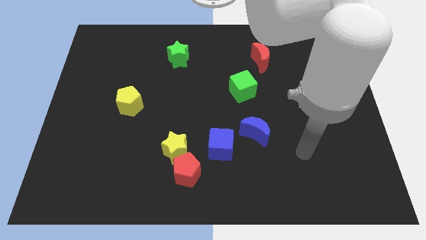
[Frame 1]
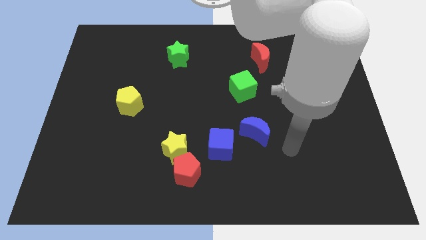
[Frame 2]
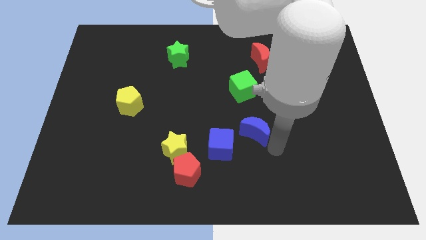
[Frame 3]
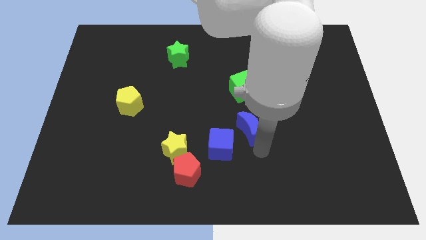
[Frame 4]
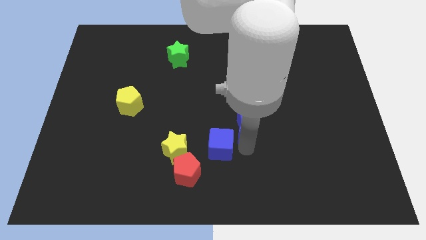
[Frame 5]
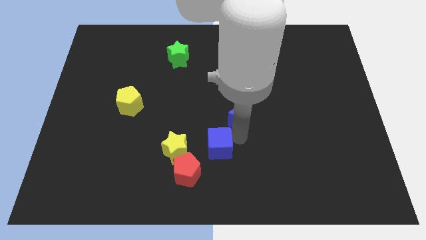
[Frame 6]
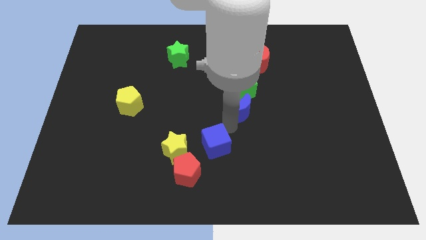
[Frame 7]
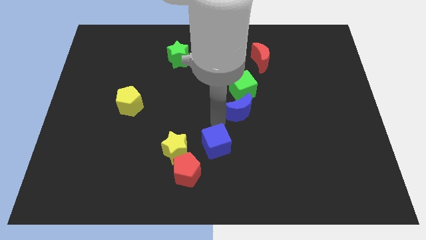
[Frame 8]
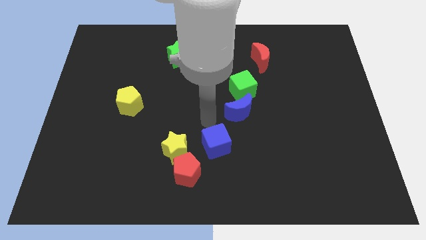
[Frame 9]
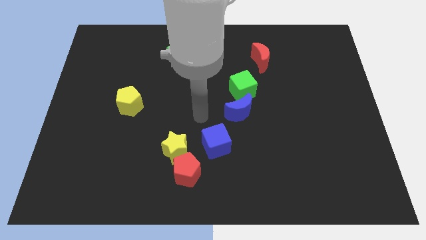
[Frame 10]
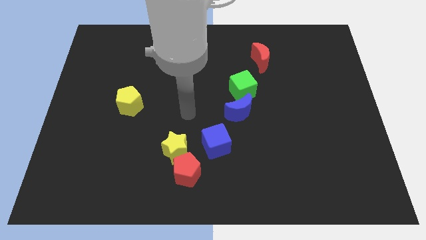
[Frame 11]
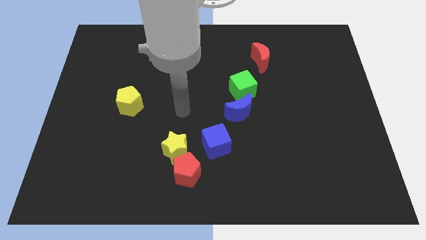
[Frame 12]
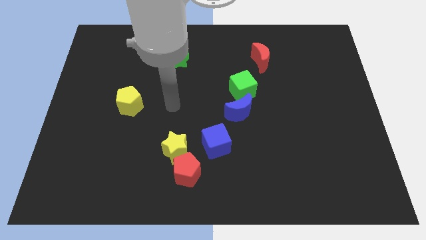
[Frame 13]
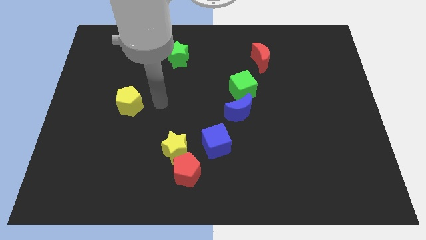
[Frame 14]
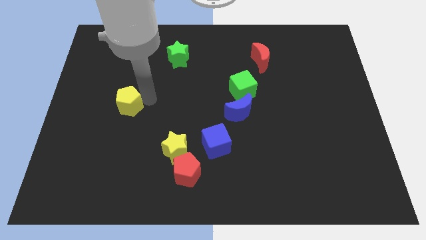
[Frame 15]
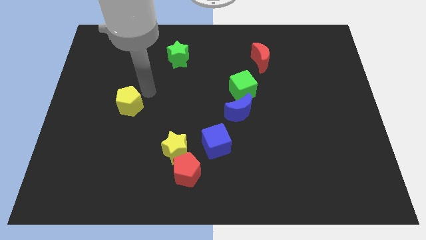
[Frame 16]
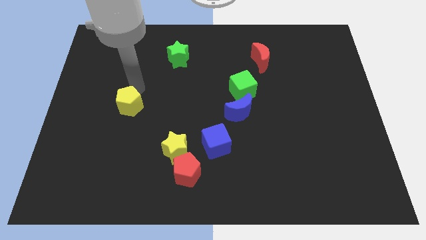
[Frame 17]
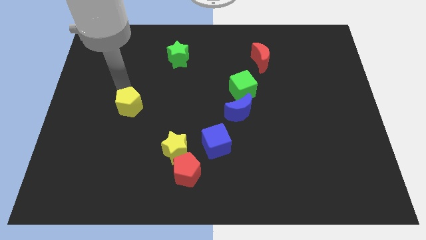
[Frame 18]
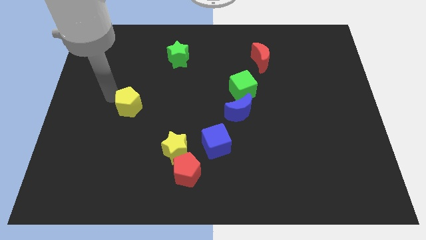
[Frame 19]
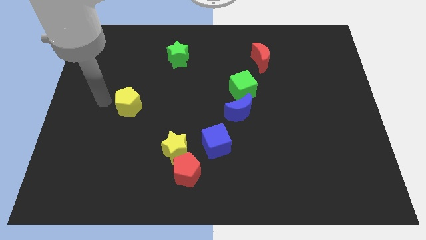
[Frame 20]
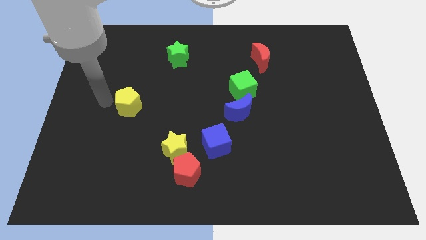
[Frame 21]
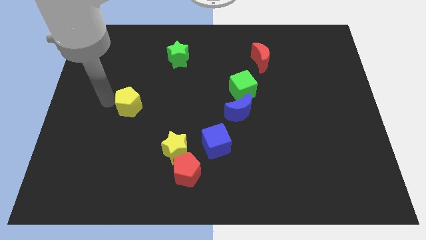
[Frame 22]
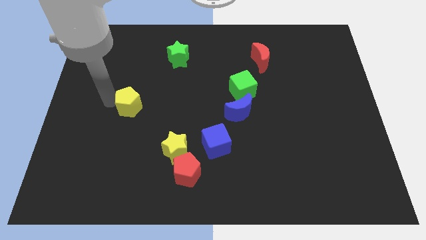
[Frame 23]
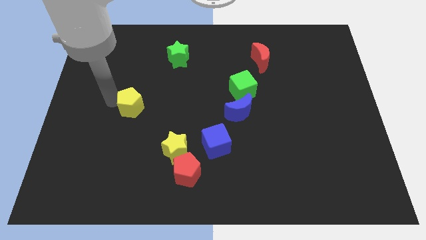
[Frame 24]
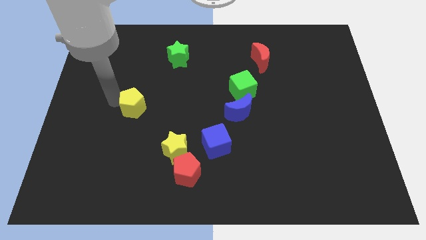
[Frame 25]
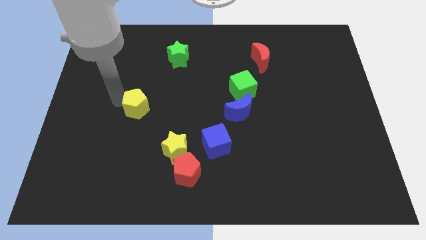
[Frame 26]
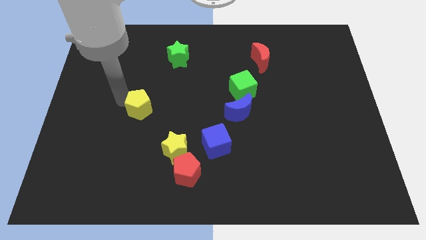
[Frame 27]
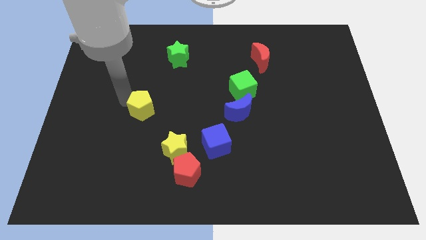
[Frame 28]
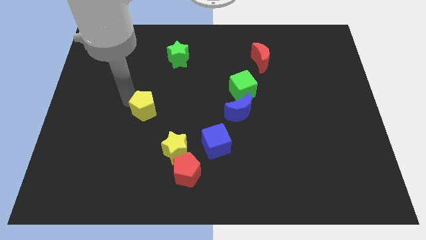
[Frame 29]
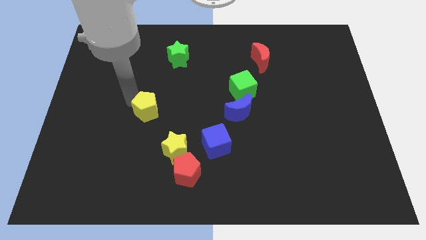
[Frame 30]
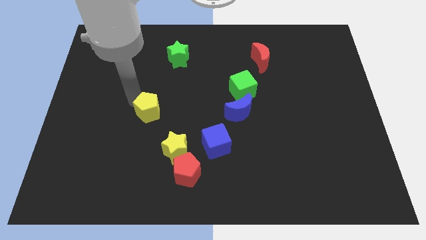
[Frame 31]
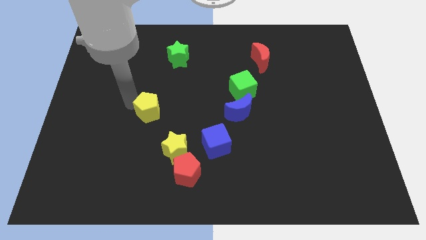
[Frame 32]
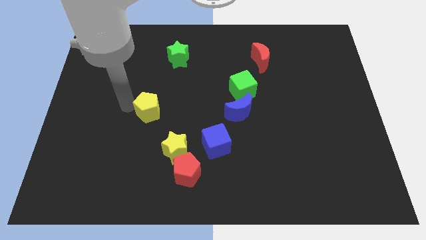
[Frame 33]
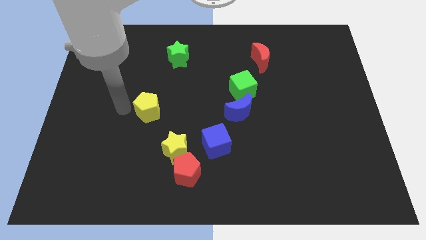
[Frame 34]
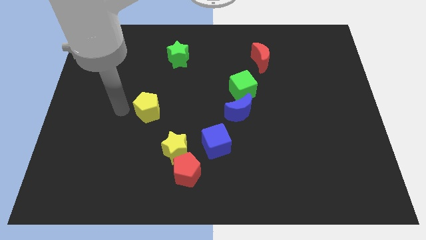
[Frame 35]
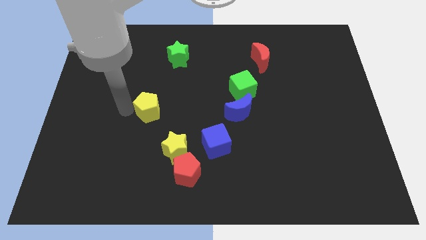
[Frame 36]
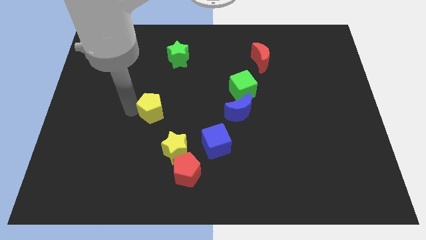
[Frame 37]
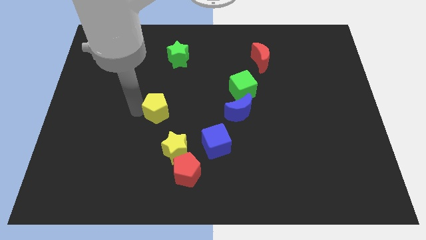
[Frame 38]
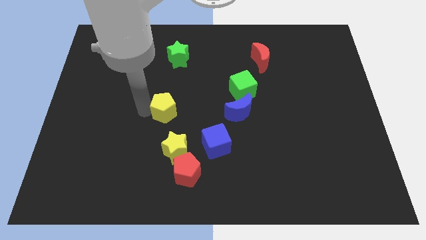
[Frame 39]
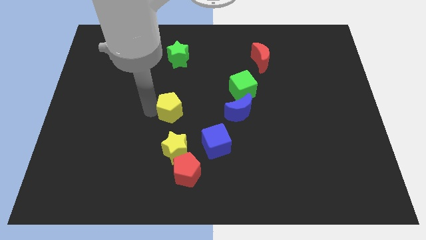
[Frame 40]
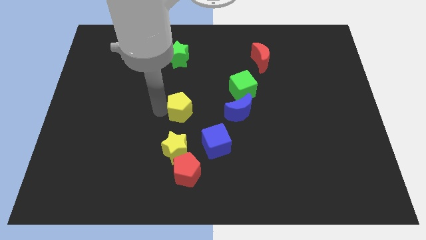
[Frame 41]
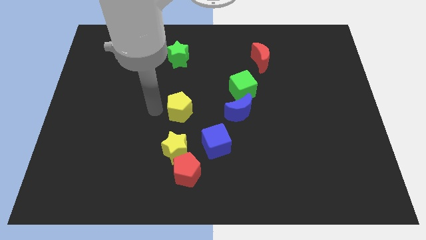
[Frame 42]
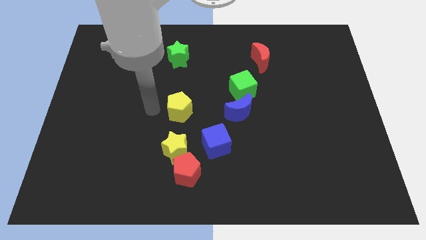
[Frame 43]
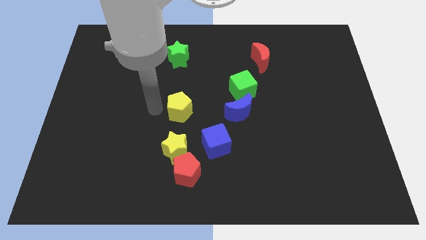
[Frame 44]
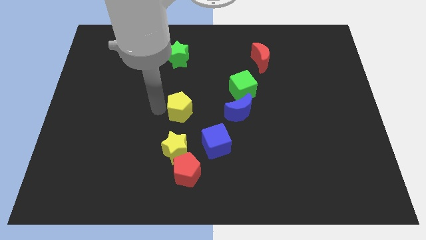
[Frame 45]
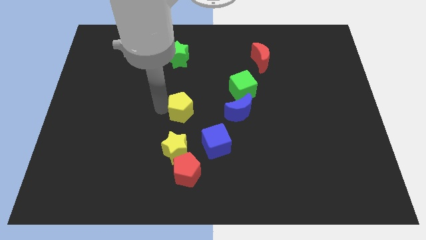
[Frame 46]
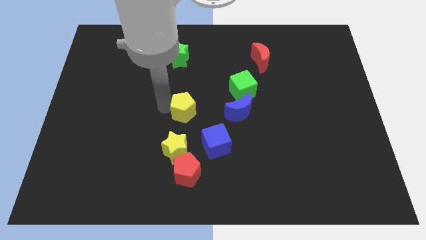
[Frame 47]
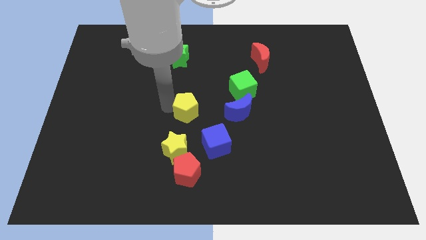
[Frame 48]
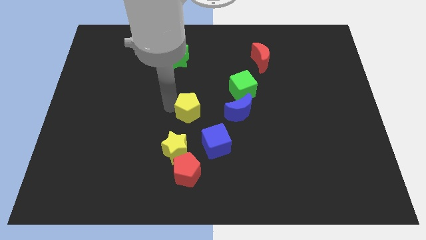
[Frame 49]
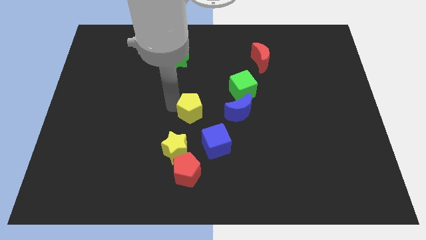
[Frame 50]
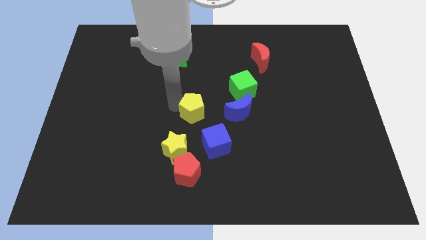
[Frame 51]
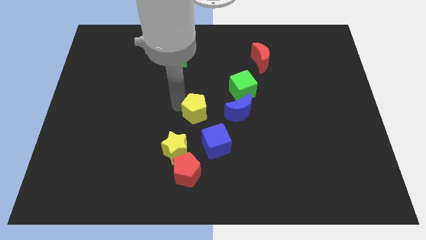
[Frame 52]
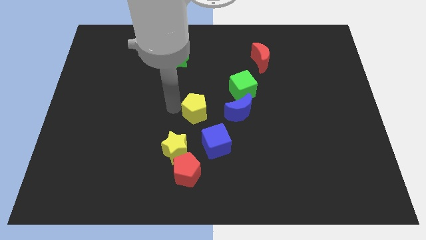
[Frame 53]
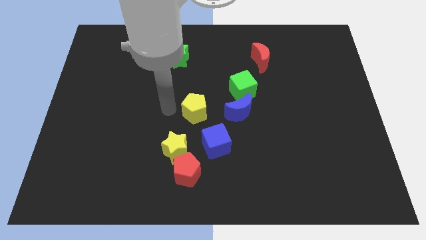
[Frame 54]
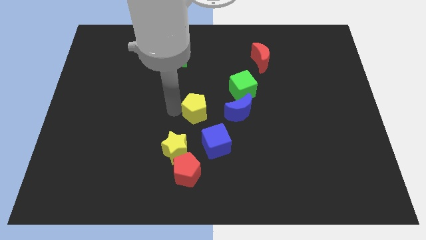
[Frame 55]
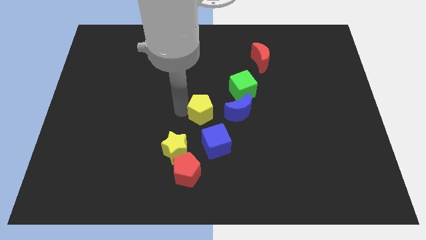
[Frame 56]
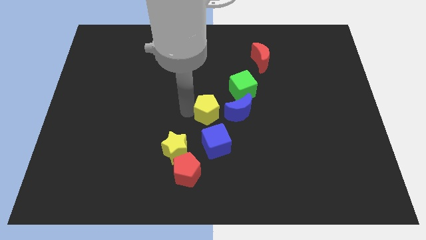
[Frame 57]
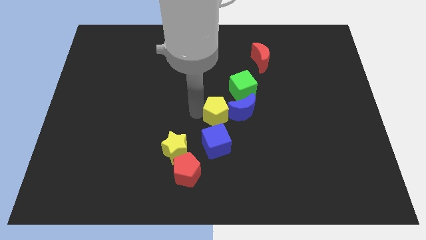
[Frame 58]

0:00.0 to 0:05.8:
push the yellow pentagon to the right

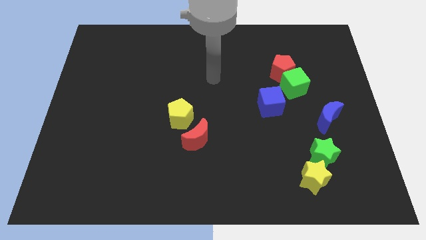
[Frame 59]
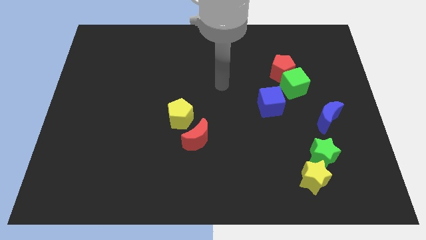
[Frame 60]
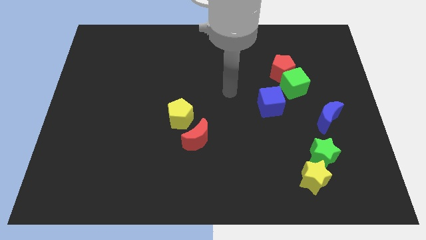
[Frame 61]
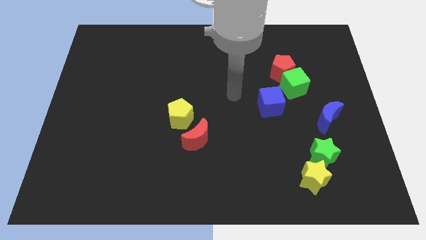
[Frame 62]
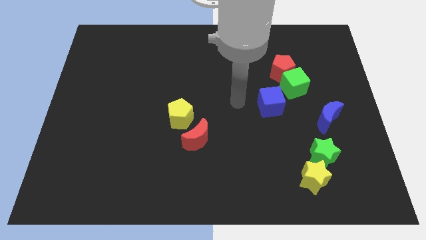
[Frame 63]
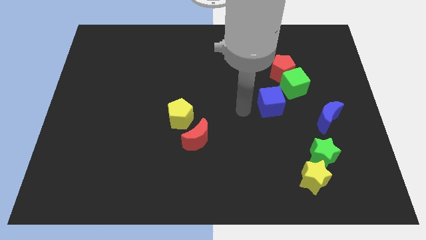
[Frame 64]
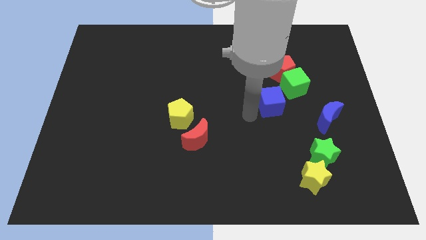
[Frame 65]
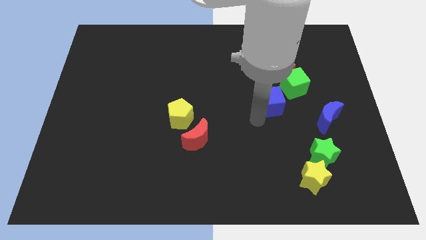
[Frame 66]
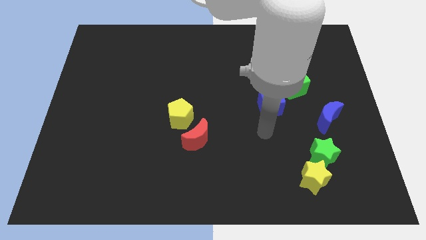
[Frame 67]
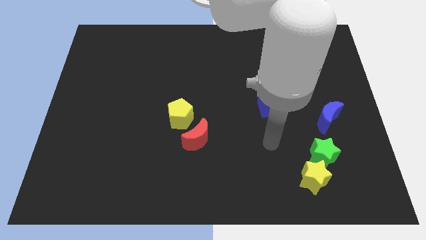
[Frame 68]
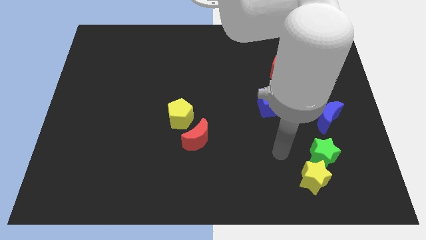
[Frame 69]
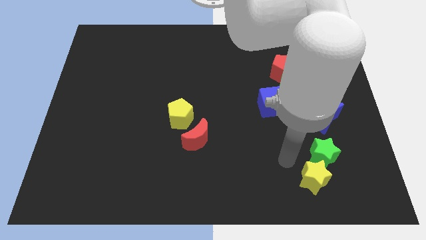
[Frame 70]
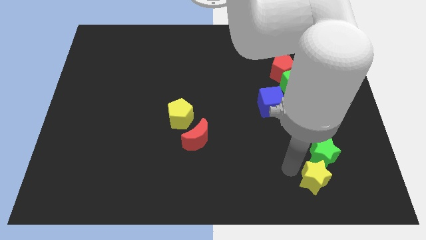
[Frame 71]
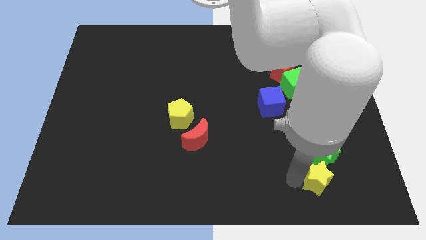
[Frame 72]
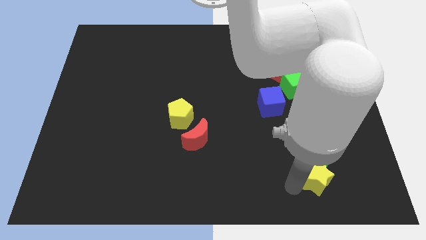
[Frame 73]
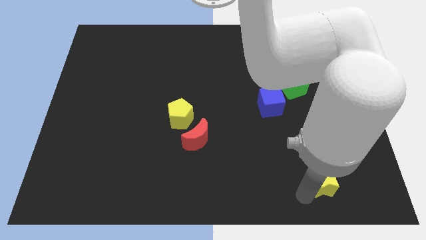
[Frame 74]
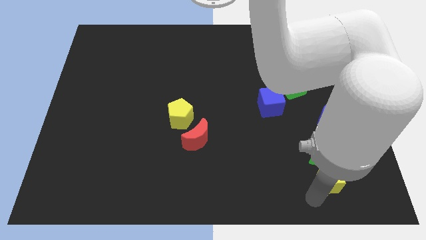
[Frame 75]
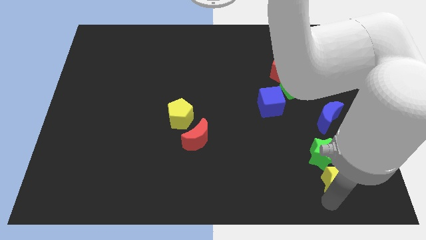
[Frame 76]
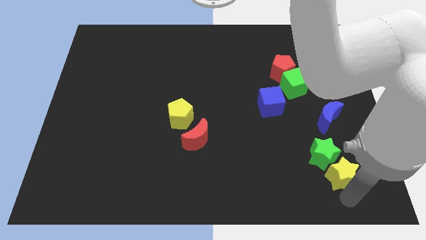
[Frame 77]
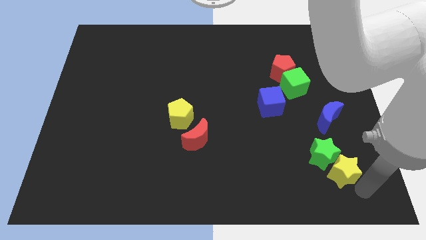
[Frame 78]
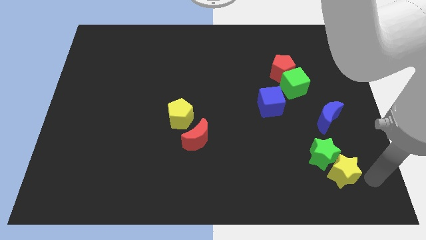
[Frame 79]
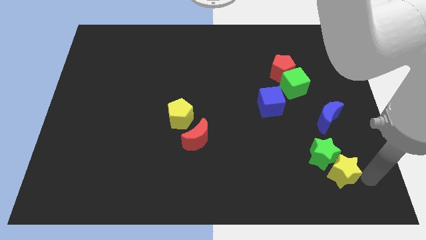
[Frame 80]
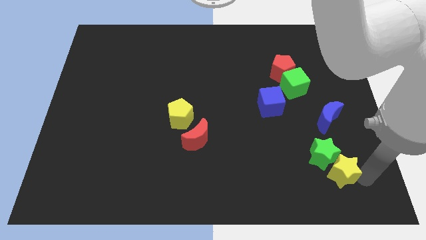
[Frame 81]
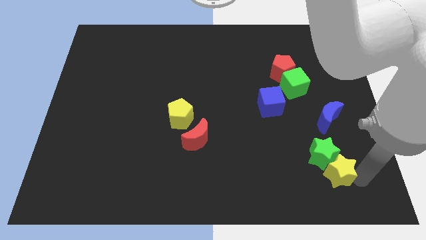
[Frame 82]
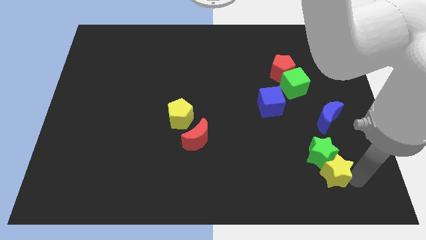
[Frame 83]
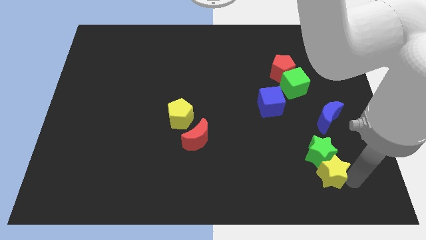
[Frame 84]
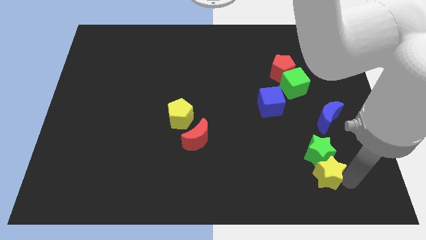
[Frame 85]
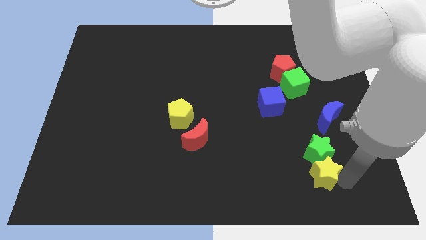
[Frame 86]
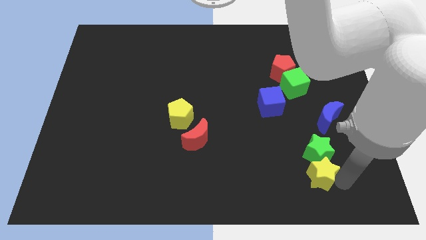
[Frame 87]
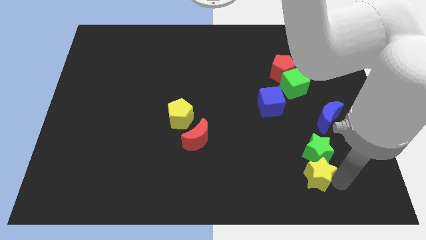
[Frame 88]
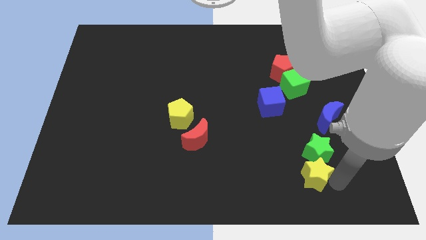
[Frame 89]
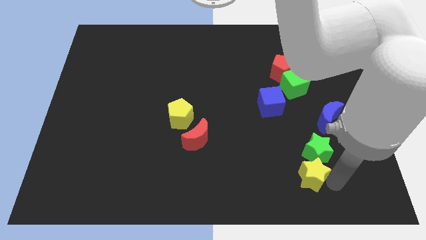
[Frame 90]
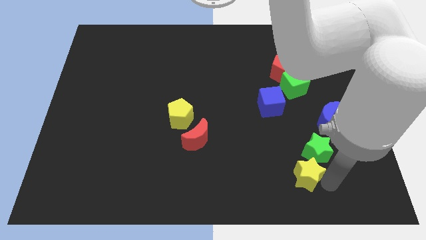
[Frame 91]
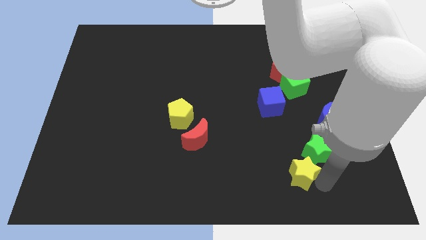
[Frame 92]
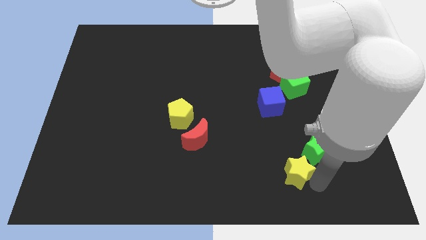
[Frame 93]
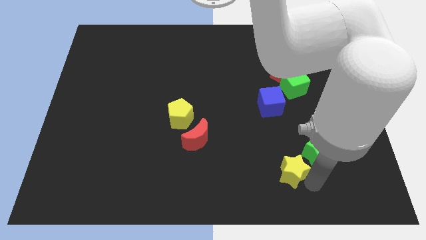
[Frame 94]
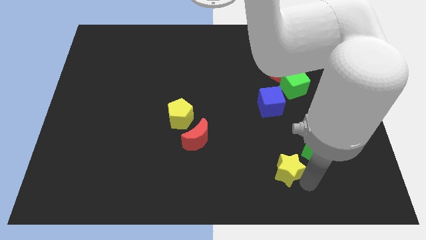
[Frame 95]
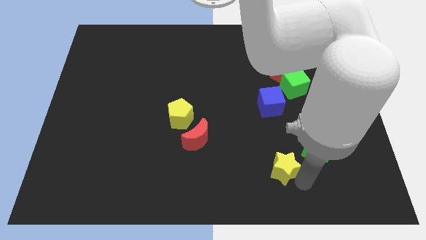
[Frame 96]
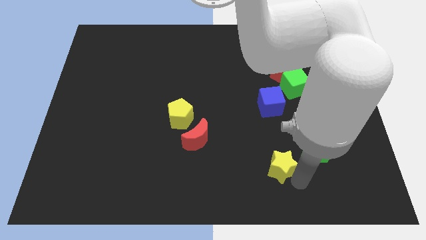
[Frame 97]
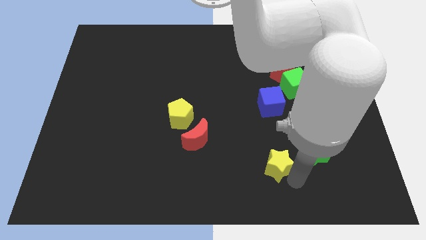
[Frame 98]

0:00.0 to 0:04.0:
slightly push the yellow star up and then to the left
